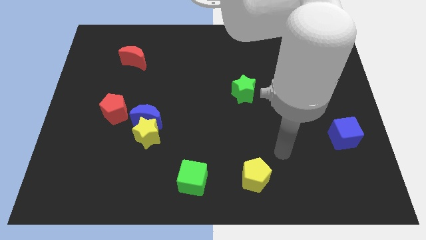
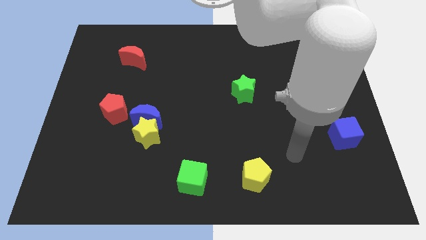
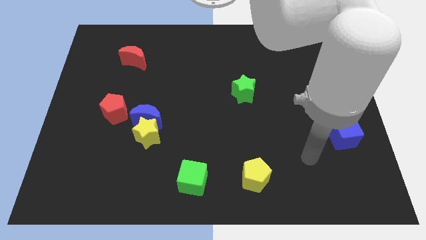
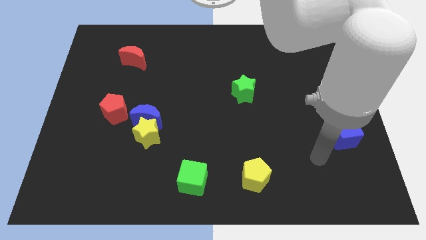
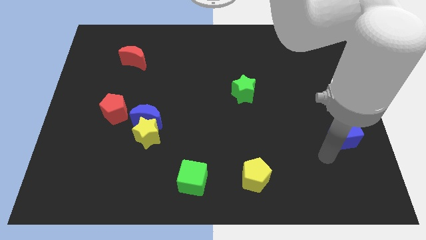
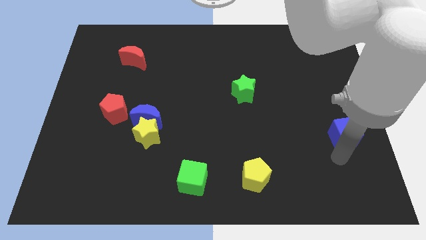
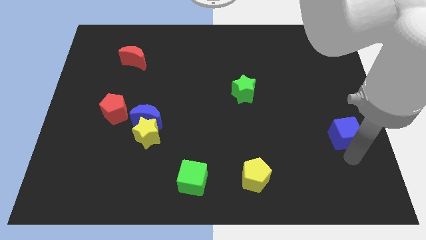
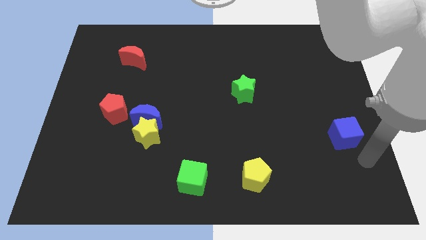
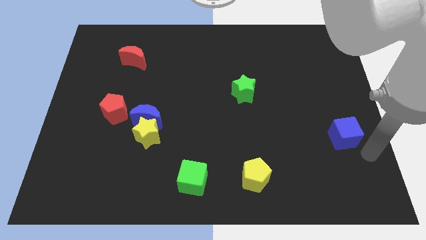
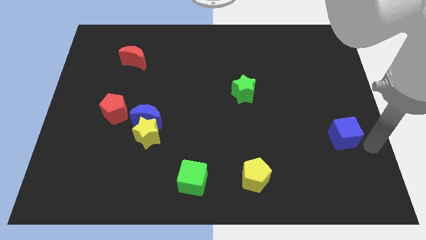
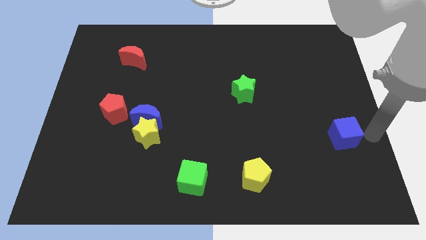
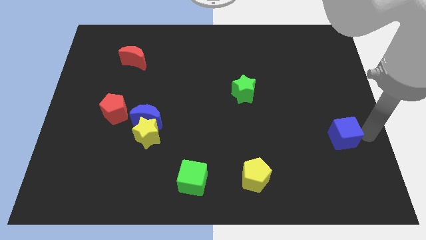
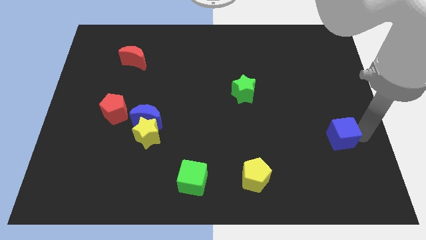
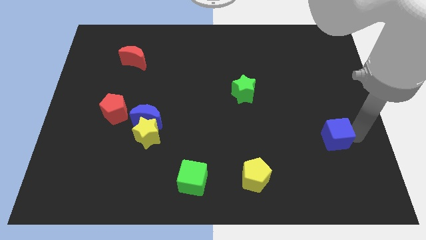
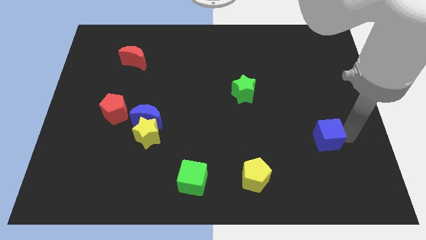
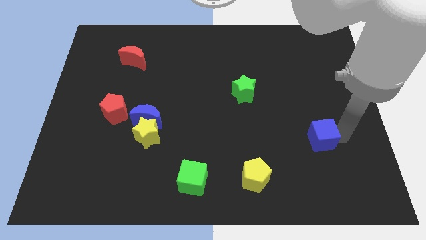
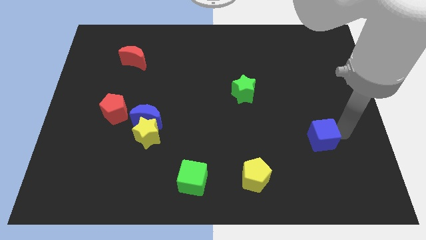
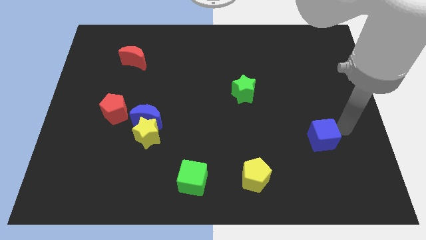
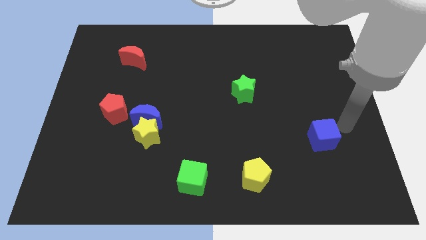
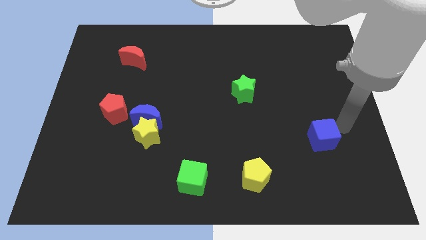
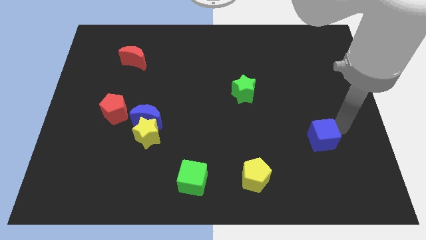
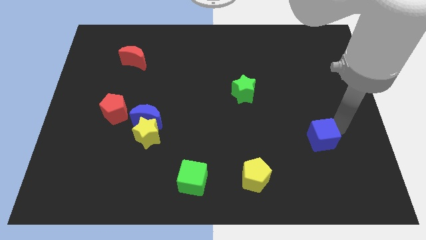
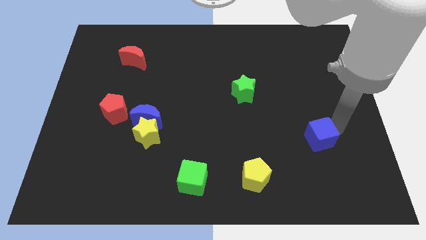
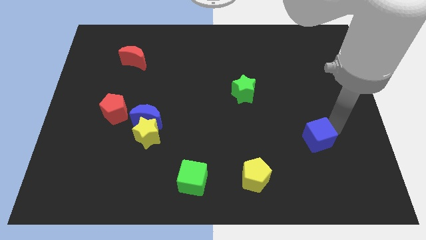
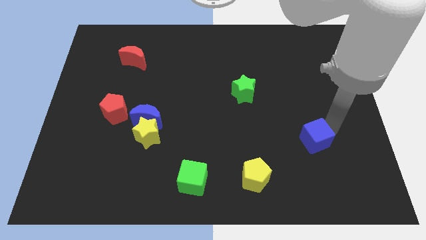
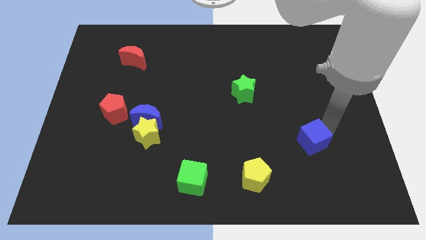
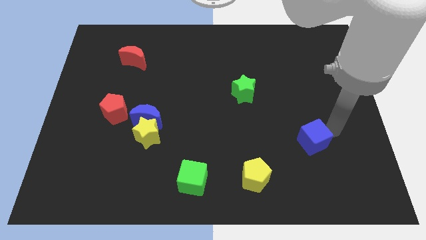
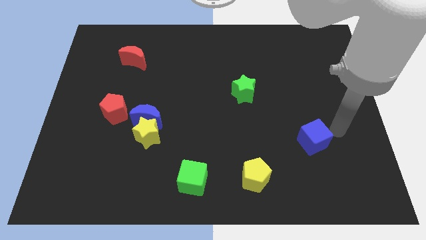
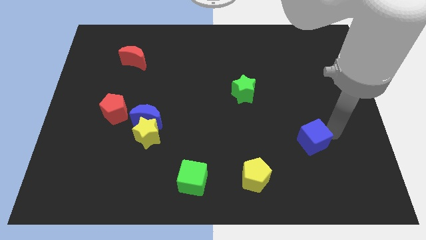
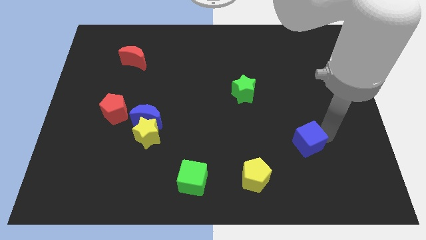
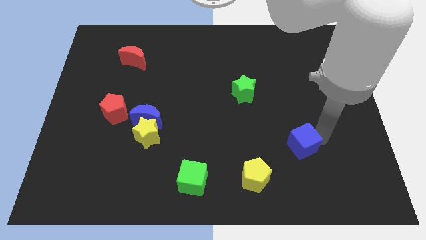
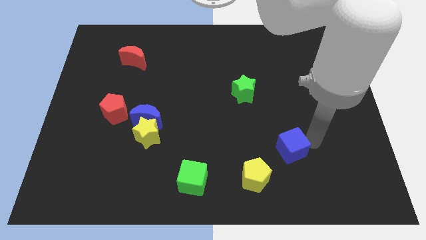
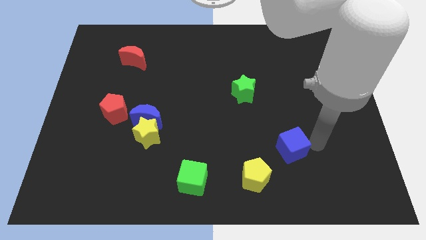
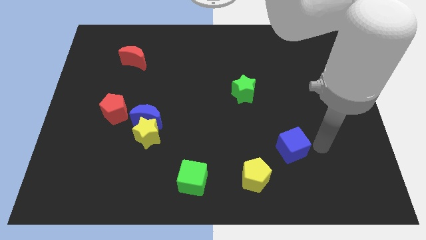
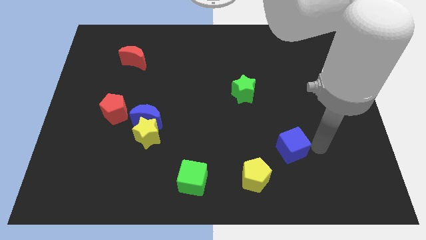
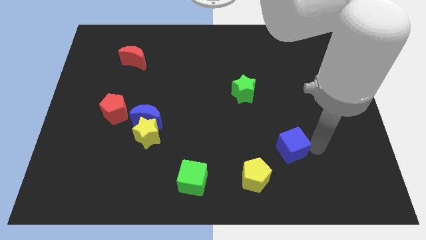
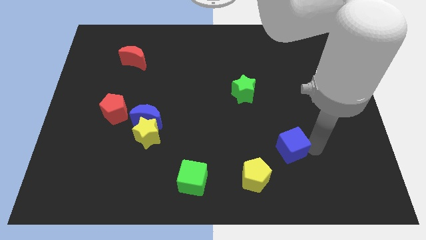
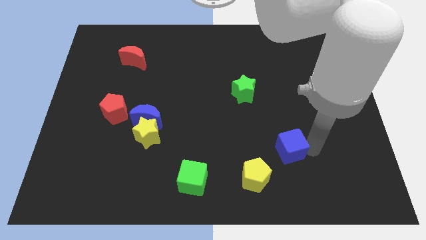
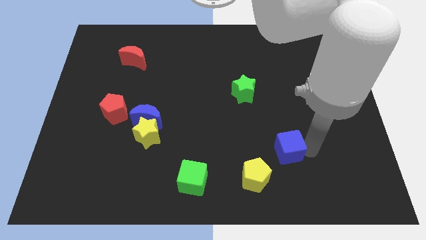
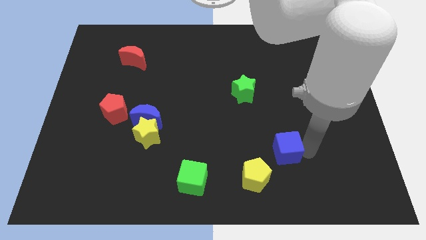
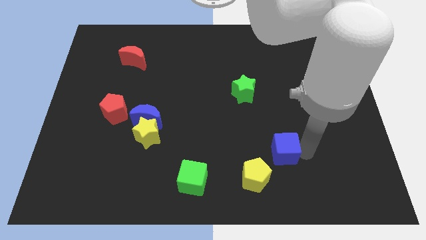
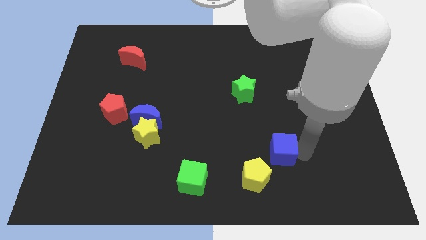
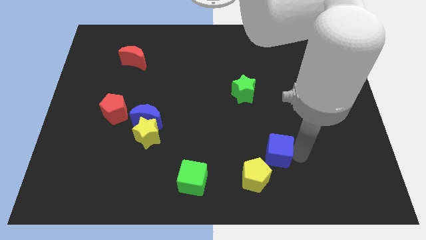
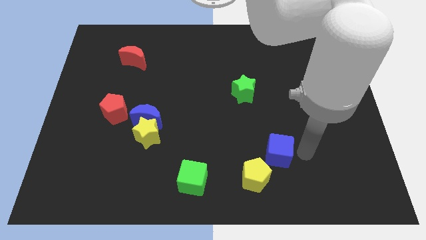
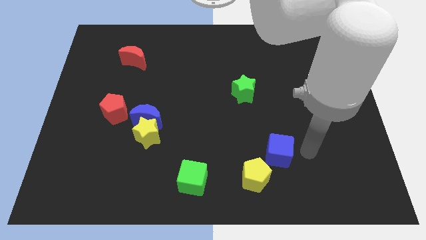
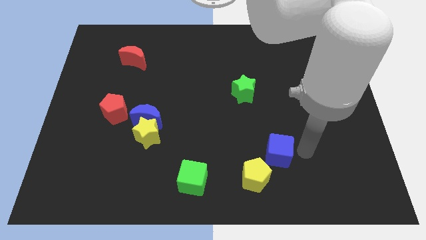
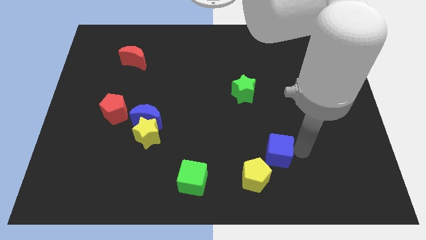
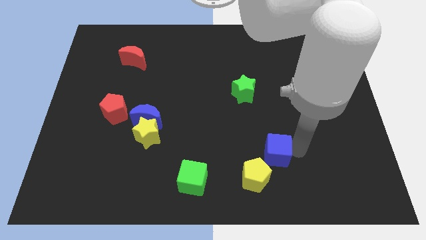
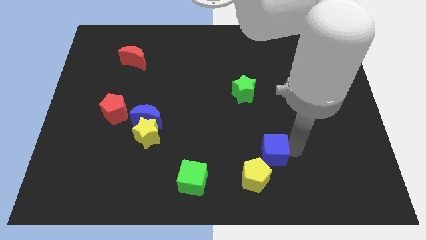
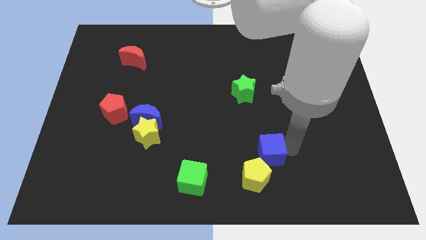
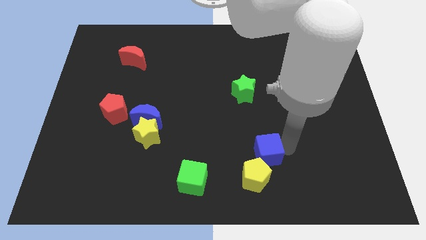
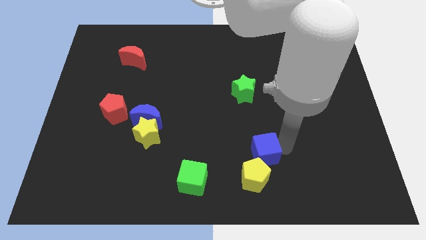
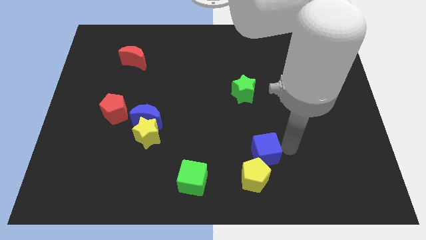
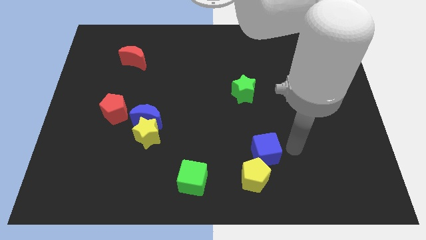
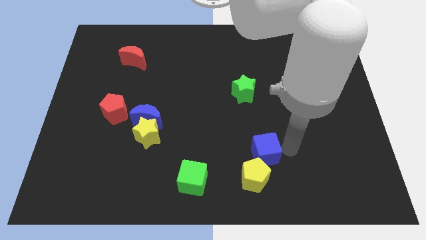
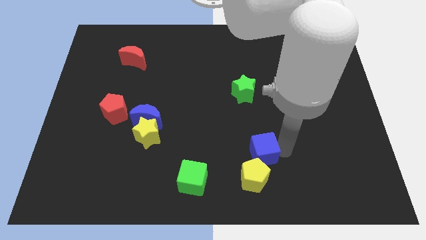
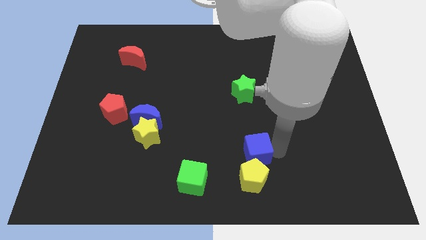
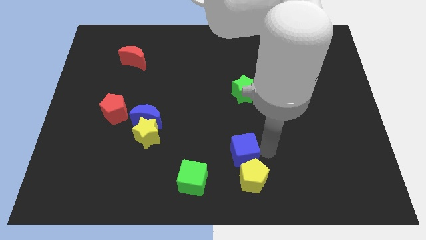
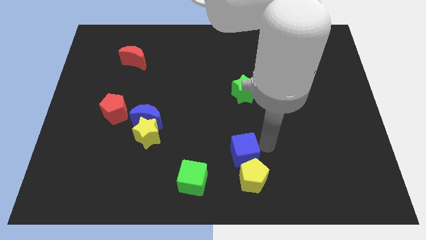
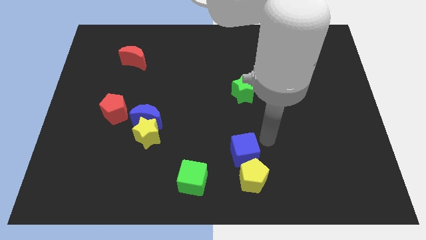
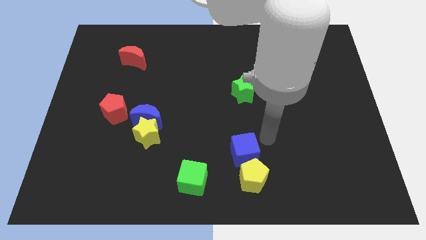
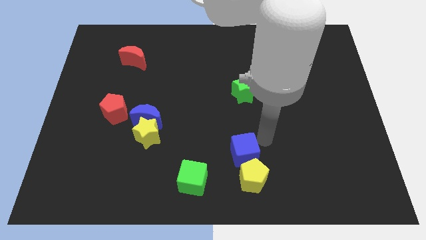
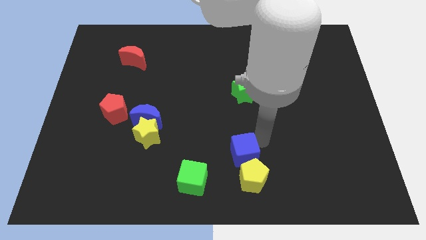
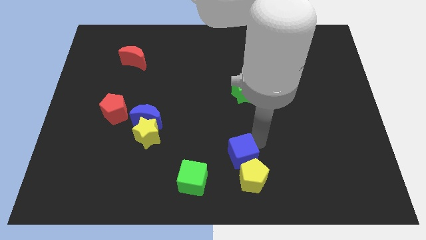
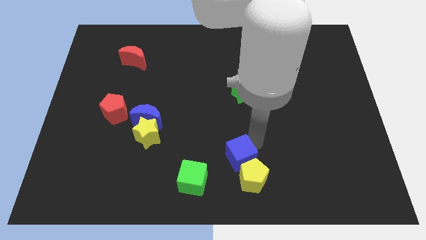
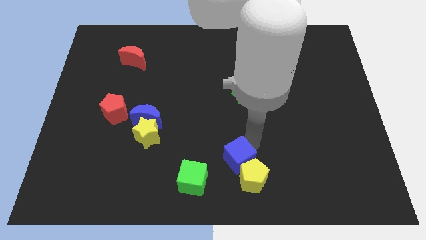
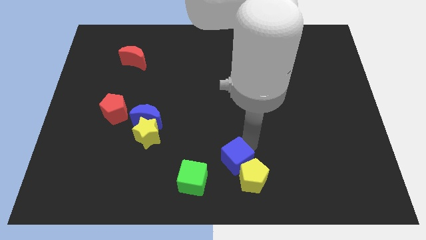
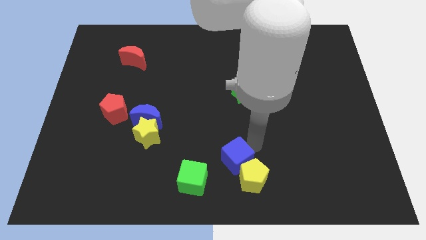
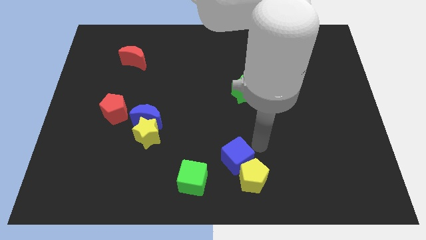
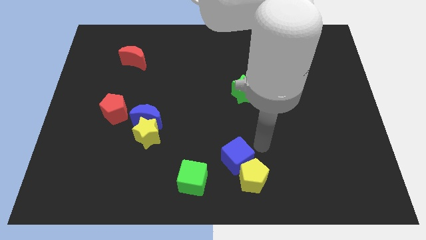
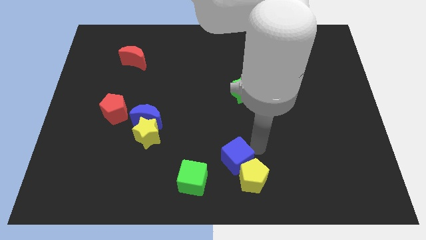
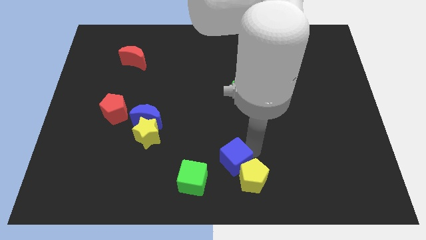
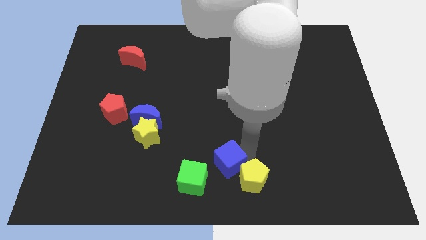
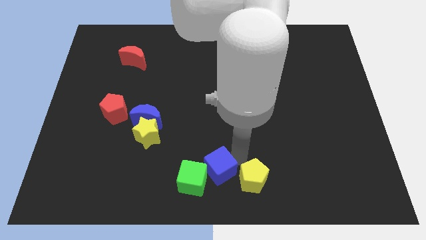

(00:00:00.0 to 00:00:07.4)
push the blue cube towards the green cube
